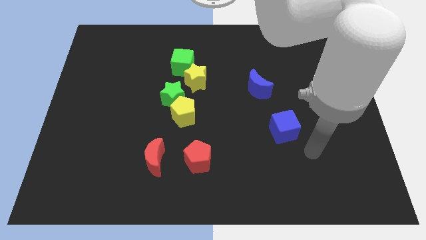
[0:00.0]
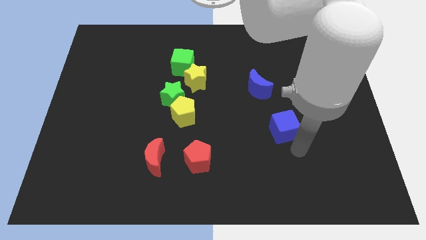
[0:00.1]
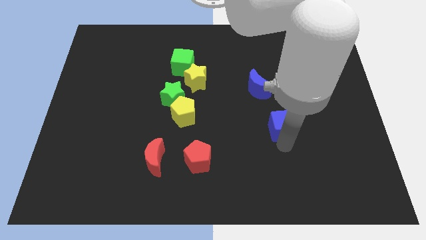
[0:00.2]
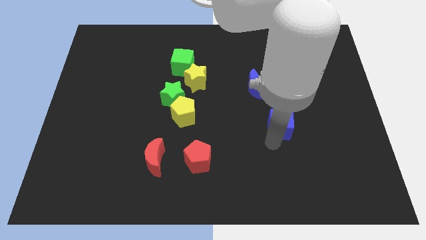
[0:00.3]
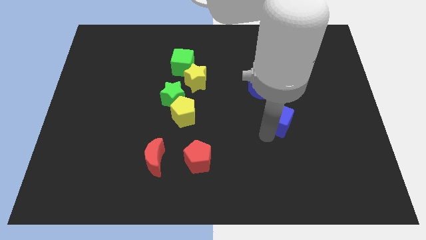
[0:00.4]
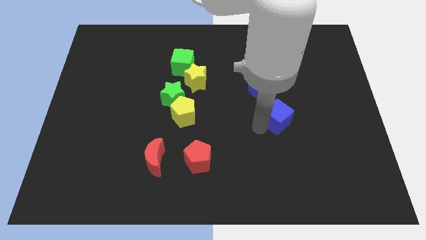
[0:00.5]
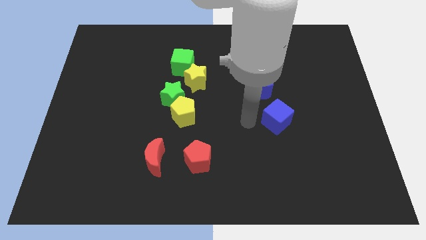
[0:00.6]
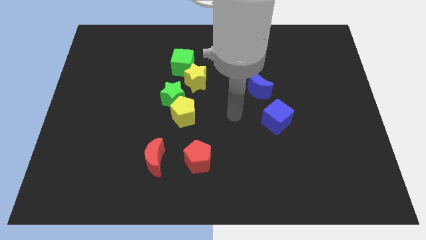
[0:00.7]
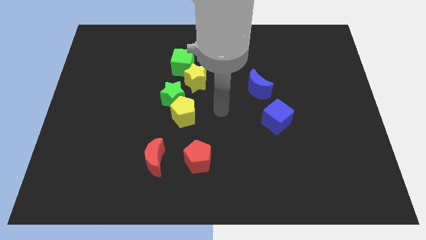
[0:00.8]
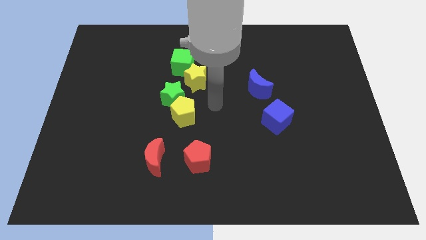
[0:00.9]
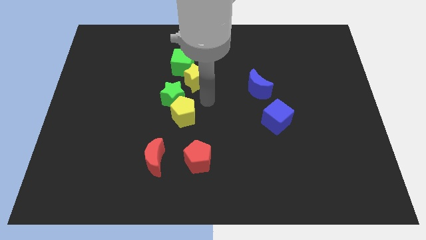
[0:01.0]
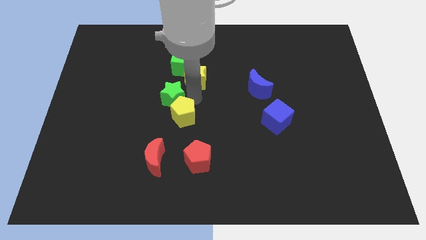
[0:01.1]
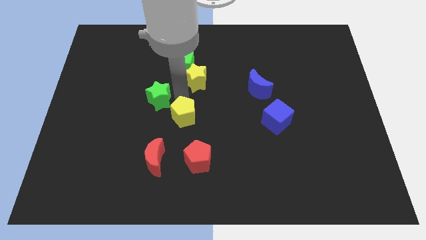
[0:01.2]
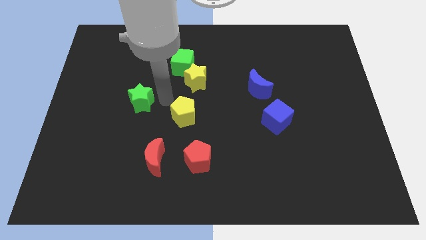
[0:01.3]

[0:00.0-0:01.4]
pull the yellow pentagon apart from the green star

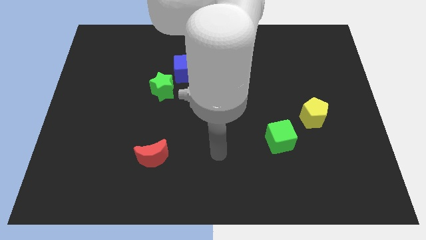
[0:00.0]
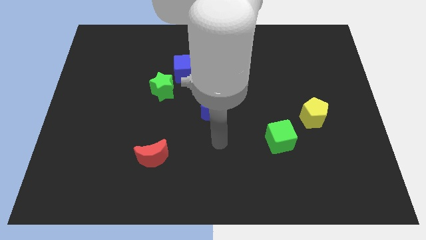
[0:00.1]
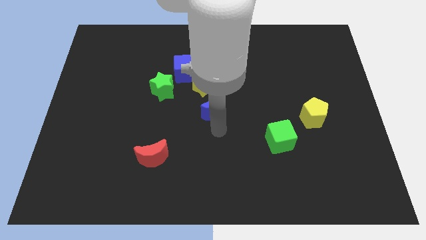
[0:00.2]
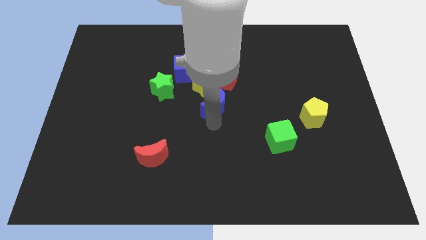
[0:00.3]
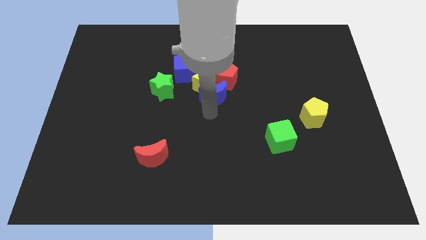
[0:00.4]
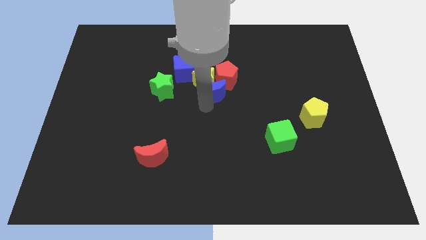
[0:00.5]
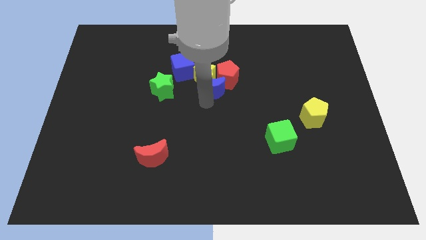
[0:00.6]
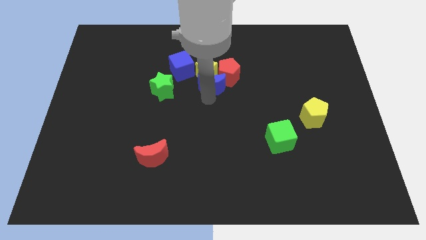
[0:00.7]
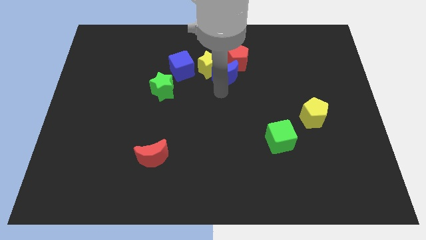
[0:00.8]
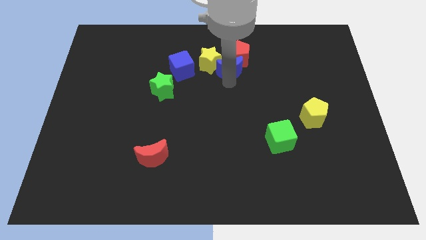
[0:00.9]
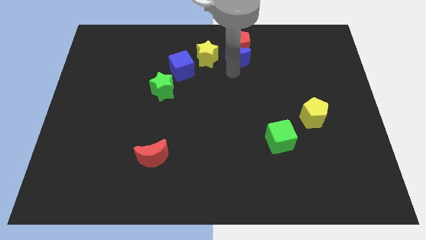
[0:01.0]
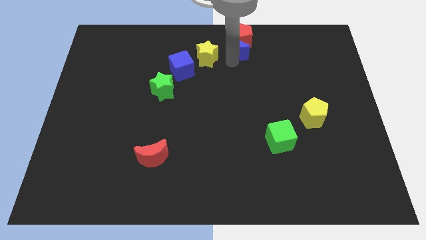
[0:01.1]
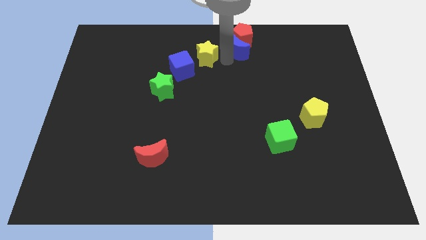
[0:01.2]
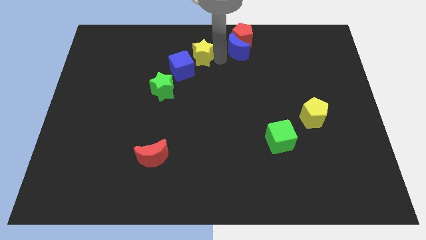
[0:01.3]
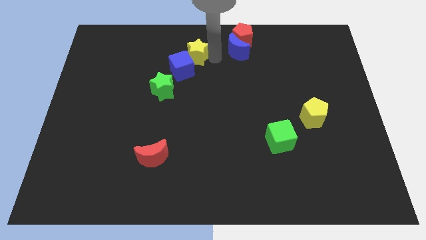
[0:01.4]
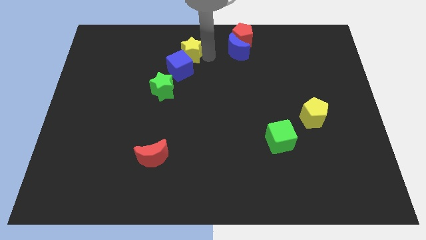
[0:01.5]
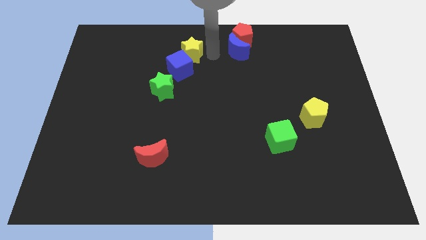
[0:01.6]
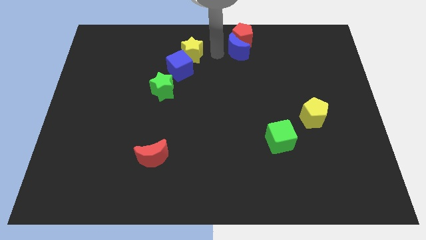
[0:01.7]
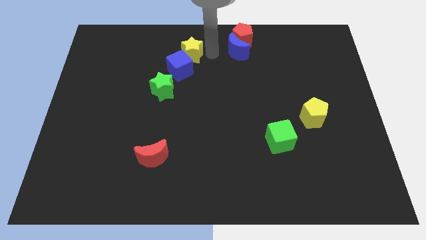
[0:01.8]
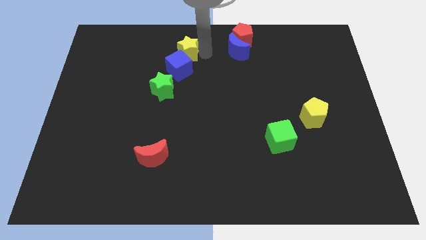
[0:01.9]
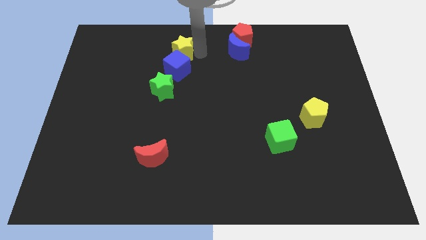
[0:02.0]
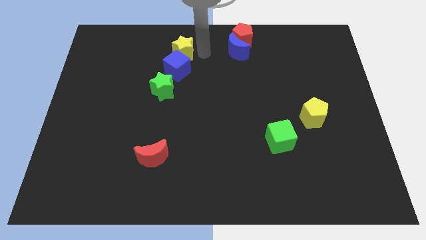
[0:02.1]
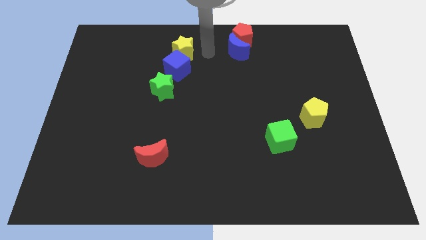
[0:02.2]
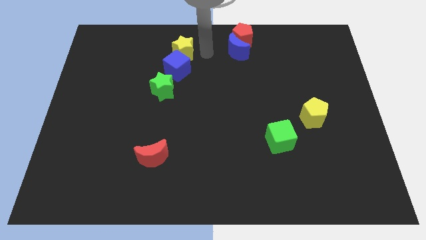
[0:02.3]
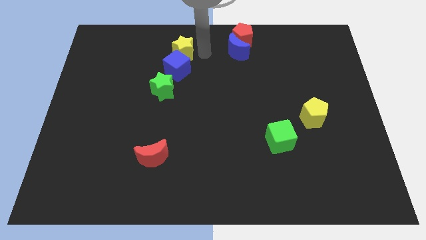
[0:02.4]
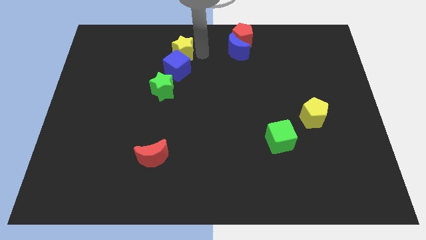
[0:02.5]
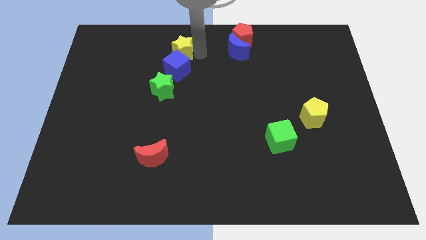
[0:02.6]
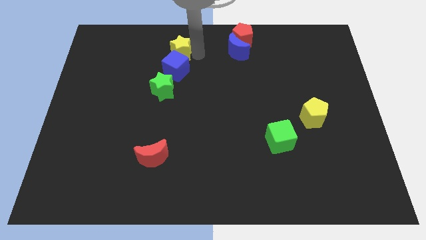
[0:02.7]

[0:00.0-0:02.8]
pull the yellow star apart from the clump

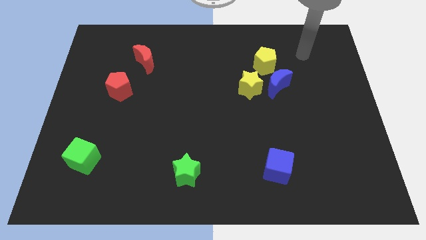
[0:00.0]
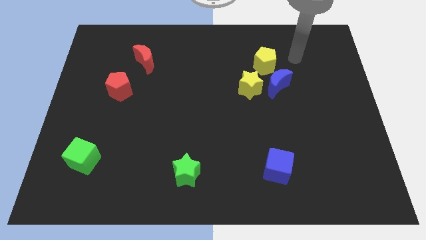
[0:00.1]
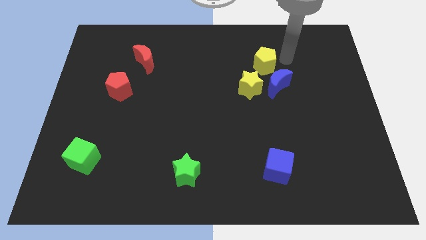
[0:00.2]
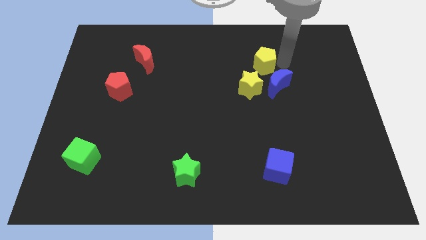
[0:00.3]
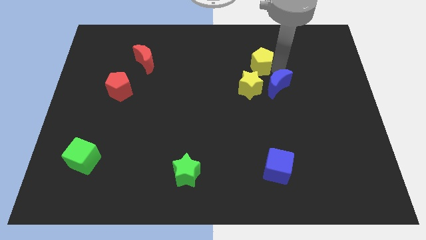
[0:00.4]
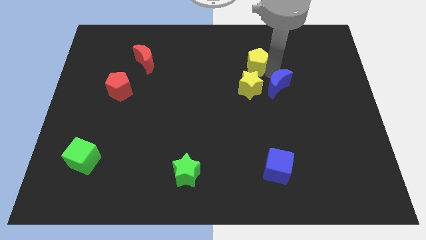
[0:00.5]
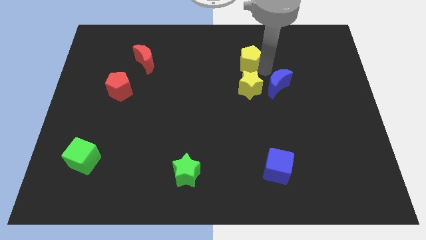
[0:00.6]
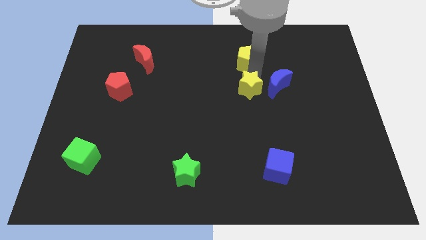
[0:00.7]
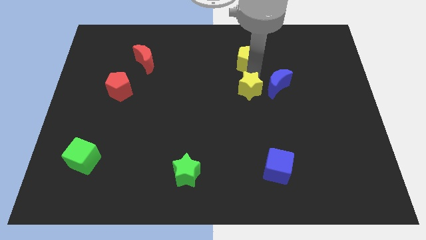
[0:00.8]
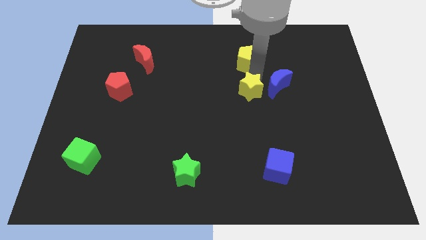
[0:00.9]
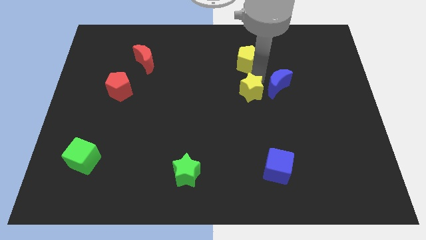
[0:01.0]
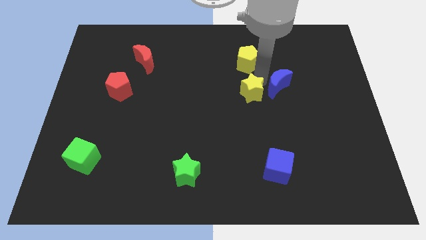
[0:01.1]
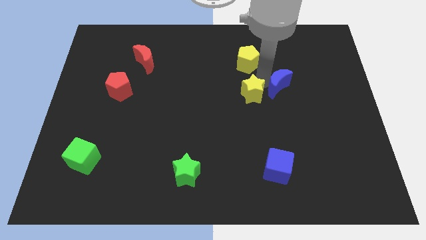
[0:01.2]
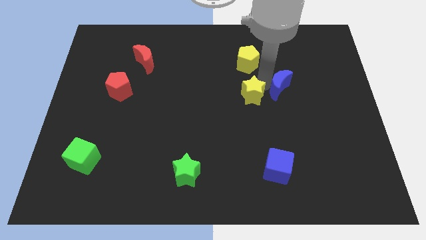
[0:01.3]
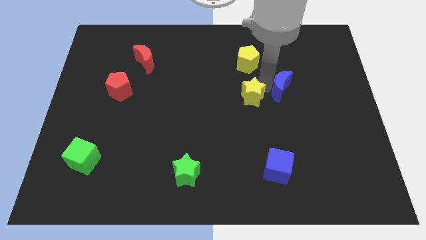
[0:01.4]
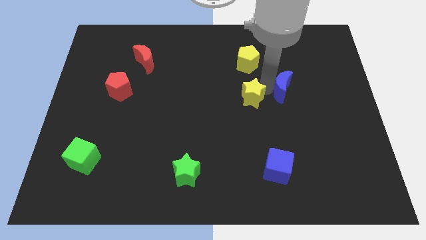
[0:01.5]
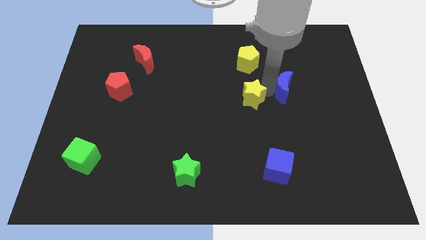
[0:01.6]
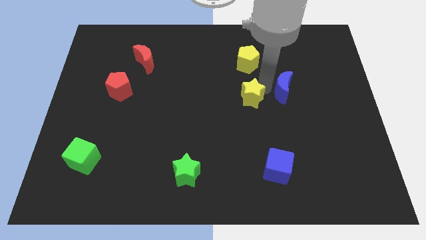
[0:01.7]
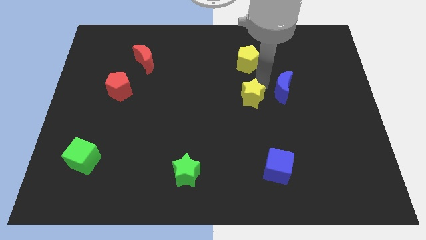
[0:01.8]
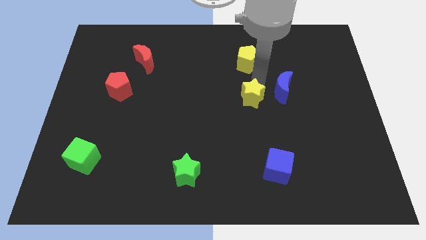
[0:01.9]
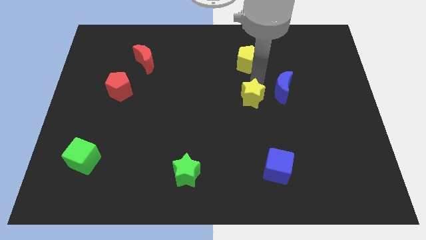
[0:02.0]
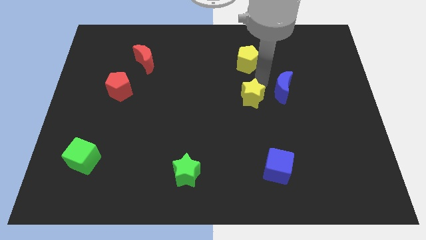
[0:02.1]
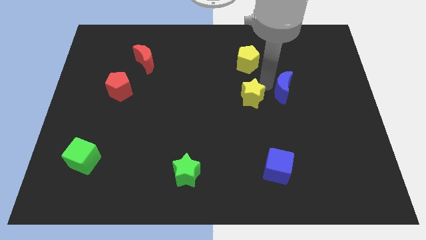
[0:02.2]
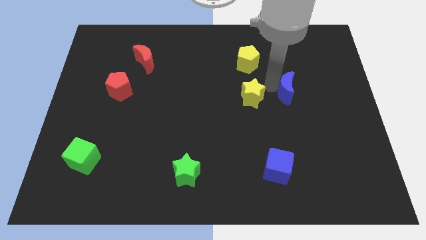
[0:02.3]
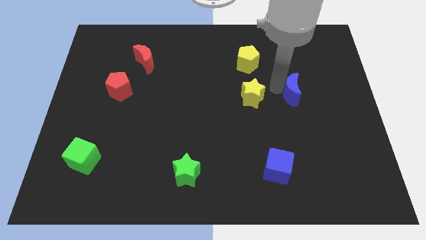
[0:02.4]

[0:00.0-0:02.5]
move the blue moon away from the yellow star and yellow pentagon

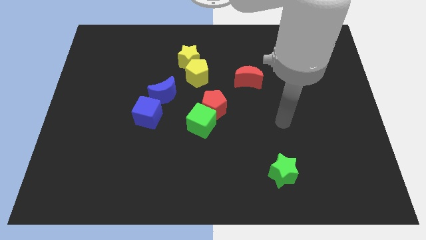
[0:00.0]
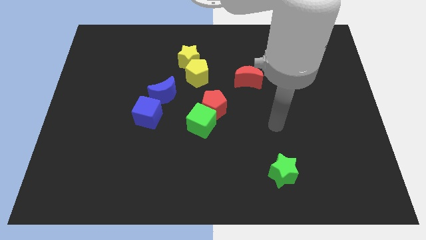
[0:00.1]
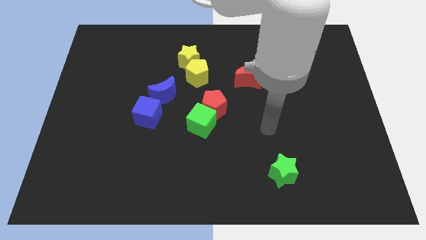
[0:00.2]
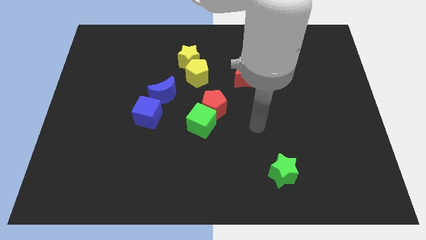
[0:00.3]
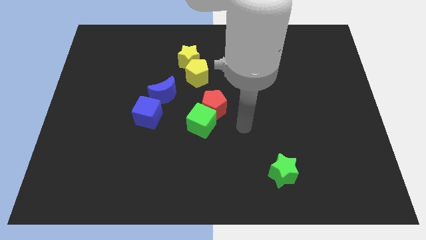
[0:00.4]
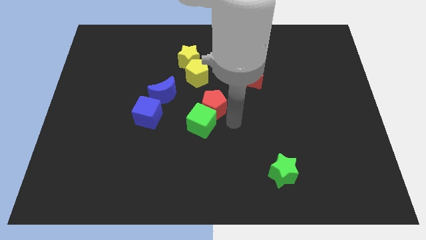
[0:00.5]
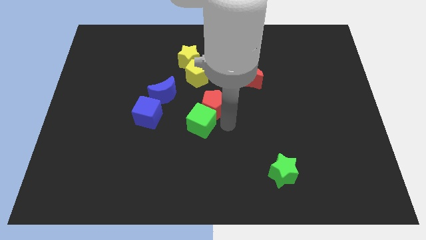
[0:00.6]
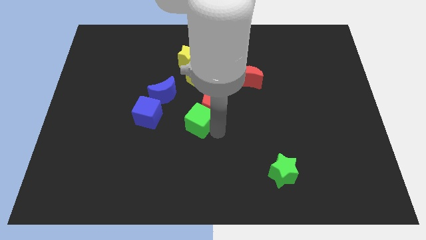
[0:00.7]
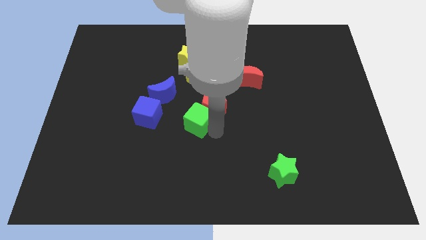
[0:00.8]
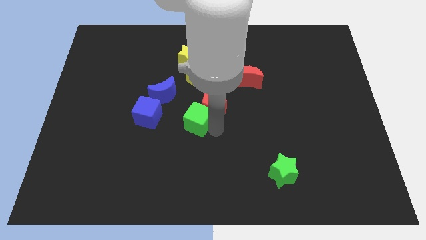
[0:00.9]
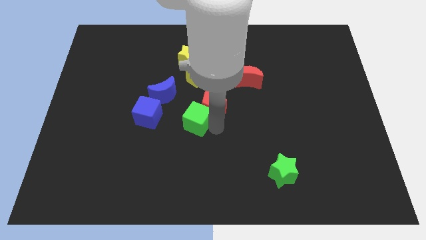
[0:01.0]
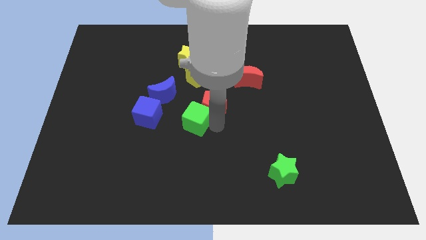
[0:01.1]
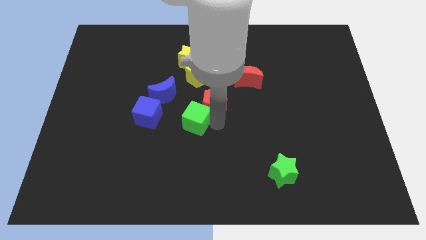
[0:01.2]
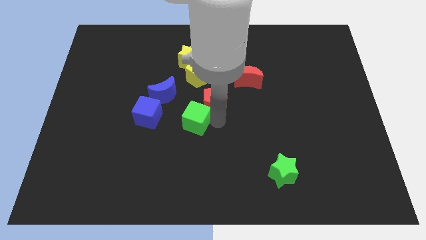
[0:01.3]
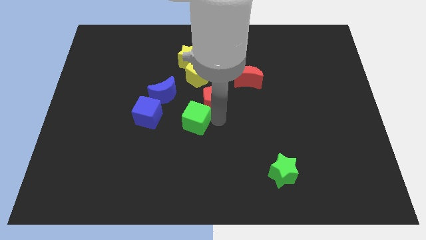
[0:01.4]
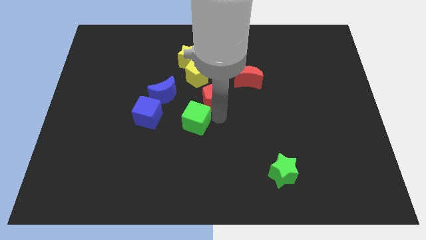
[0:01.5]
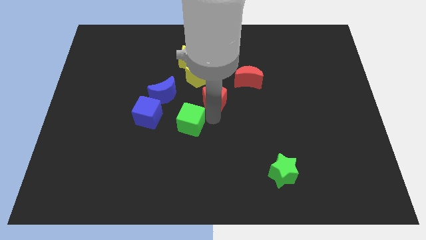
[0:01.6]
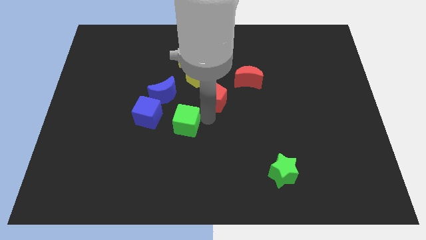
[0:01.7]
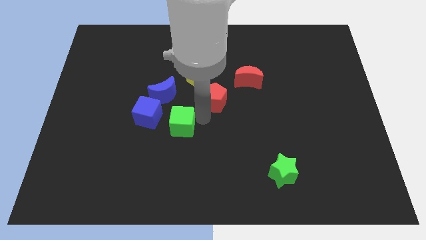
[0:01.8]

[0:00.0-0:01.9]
pull the red pentagon apart from the green cube

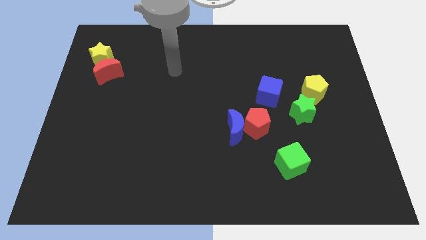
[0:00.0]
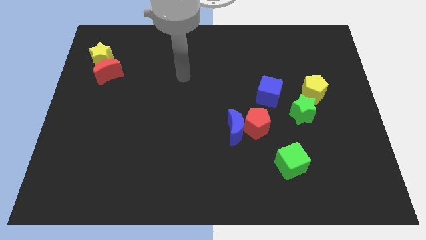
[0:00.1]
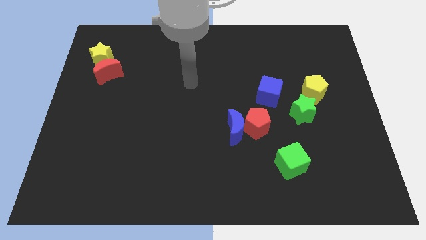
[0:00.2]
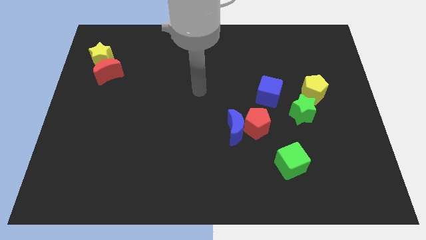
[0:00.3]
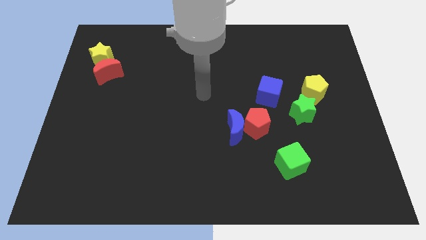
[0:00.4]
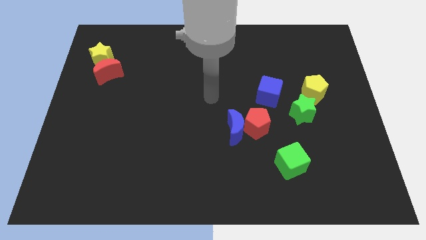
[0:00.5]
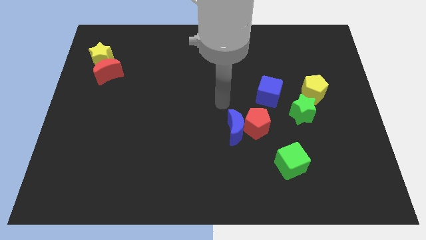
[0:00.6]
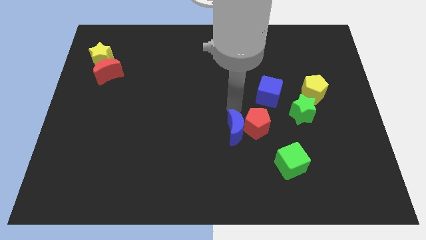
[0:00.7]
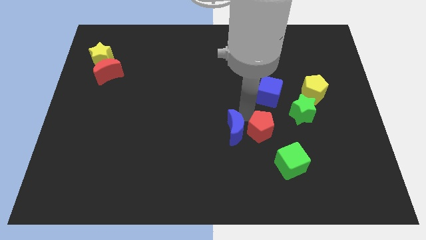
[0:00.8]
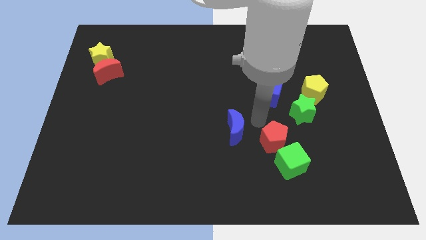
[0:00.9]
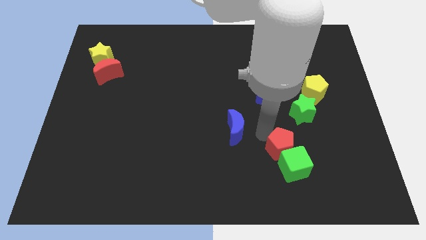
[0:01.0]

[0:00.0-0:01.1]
pull the blue moon apart from the red pentagon
